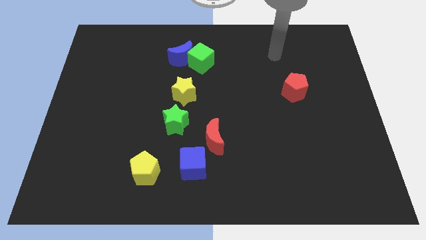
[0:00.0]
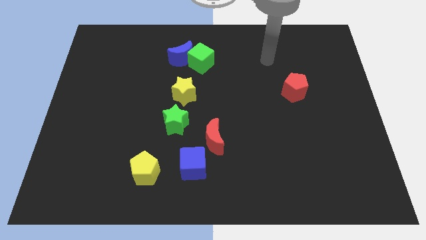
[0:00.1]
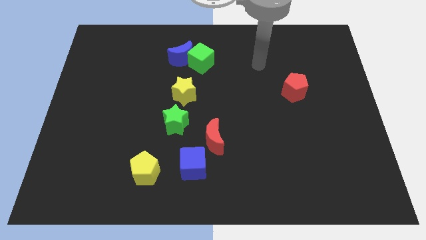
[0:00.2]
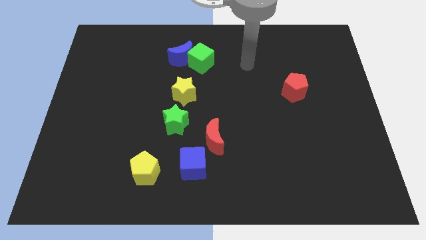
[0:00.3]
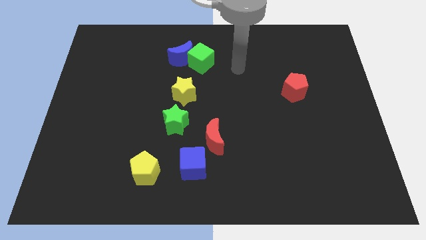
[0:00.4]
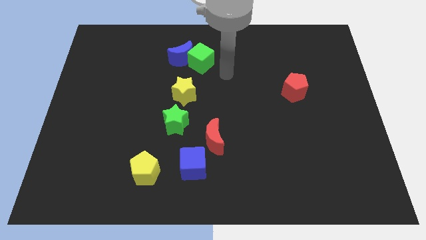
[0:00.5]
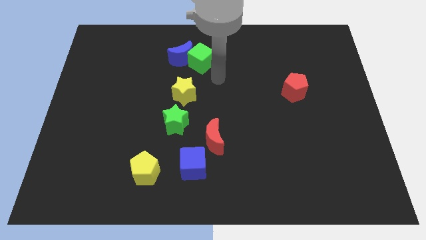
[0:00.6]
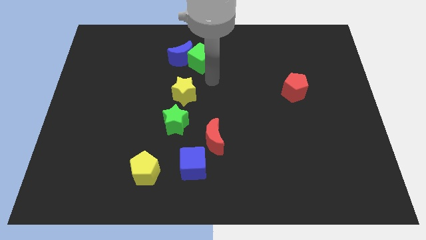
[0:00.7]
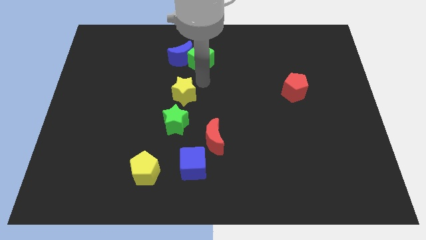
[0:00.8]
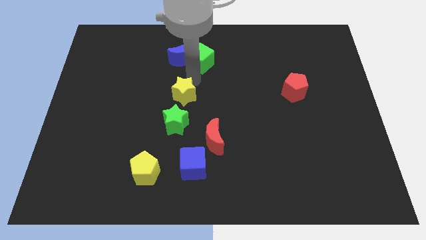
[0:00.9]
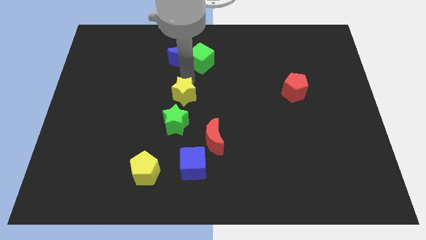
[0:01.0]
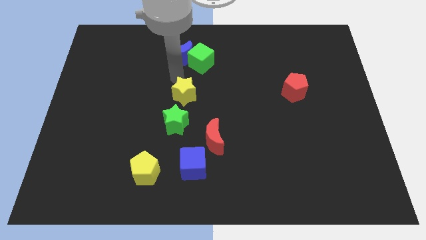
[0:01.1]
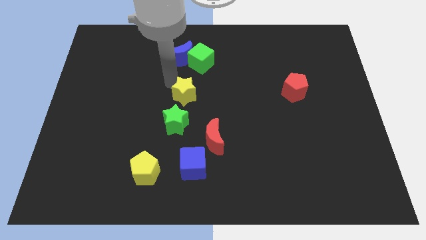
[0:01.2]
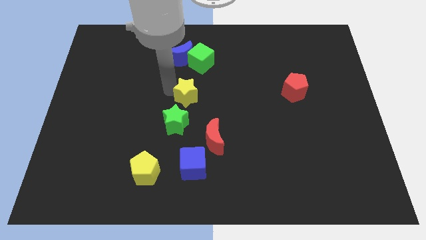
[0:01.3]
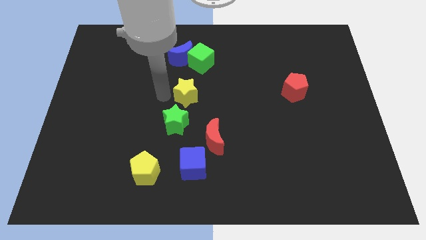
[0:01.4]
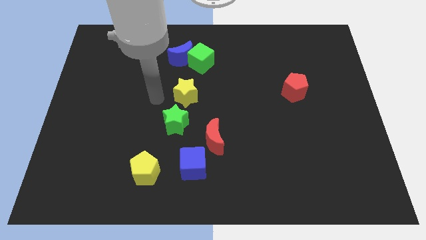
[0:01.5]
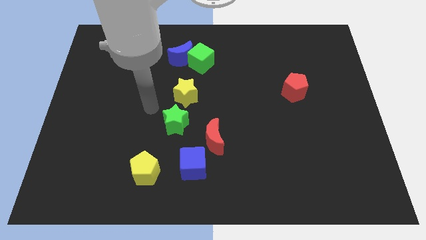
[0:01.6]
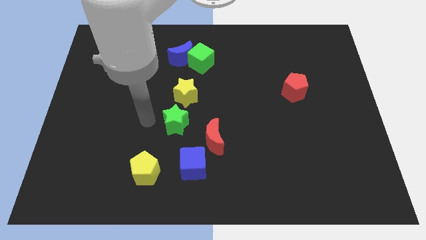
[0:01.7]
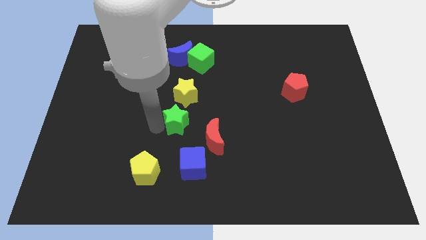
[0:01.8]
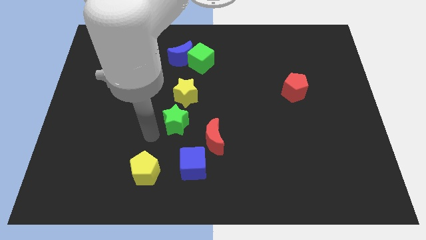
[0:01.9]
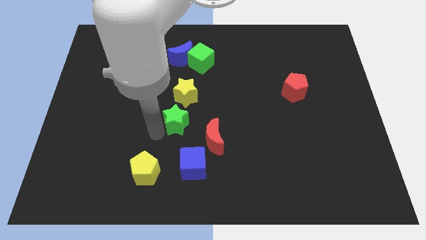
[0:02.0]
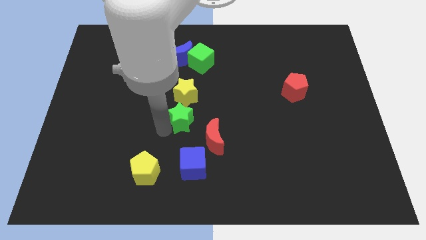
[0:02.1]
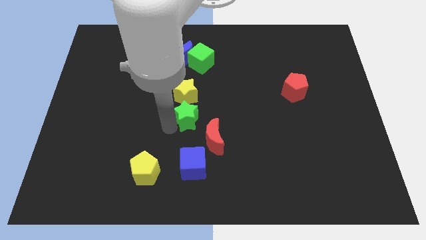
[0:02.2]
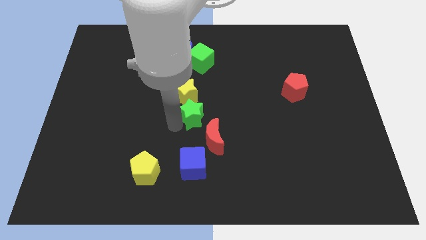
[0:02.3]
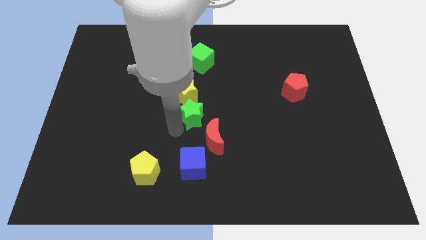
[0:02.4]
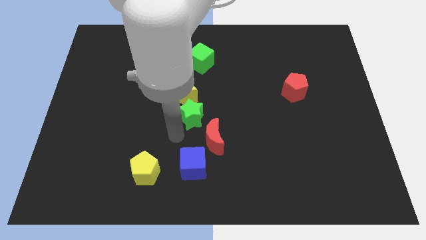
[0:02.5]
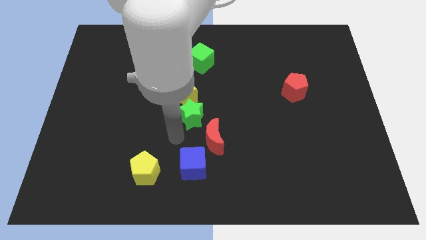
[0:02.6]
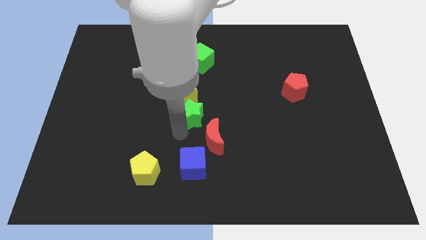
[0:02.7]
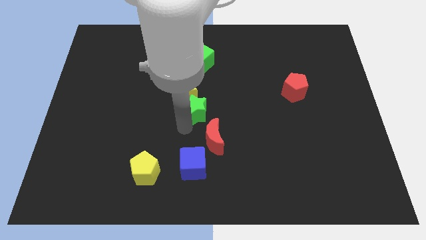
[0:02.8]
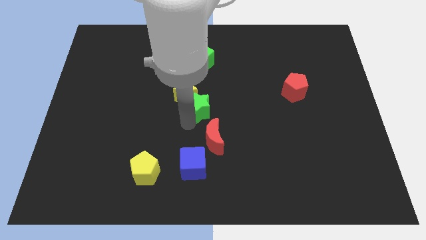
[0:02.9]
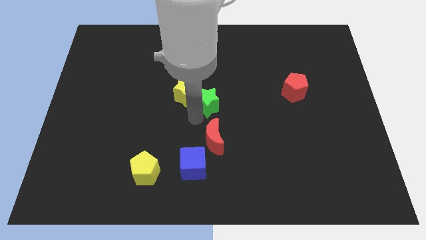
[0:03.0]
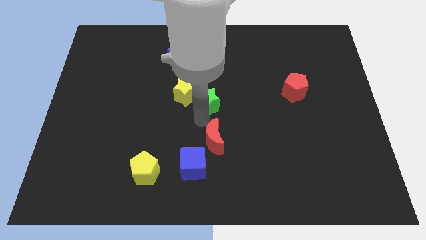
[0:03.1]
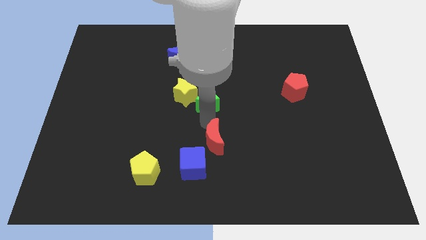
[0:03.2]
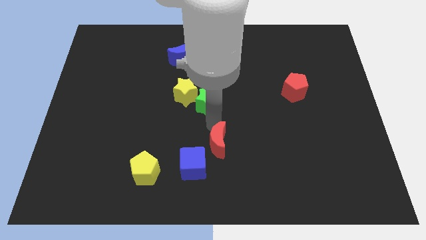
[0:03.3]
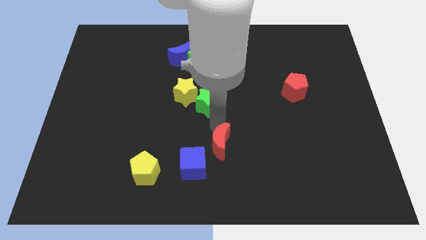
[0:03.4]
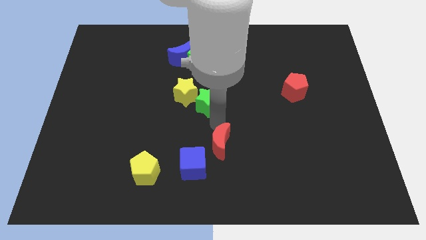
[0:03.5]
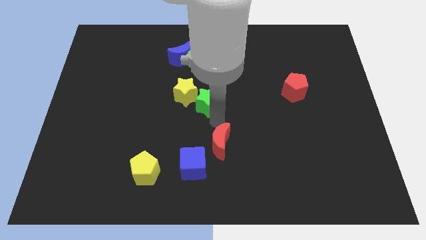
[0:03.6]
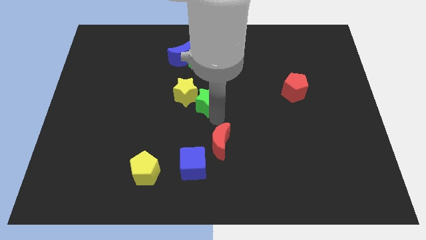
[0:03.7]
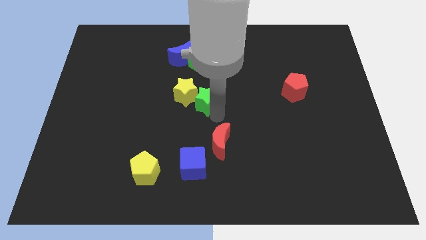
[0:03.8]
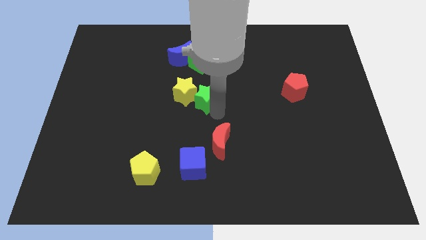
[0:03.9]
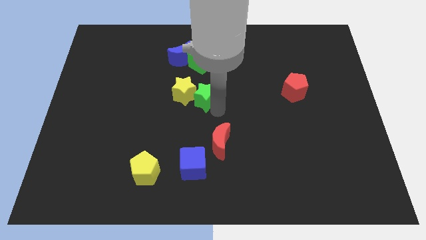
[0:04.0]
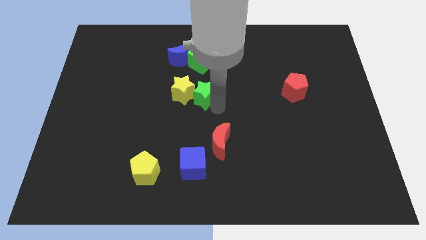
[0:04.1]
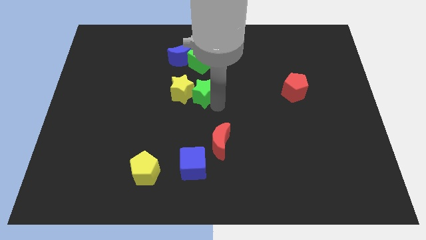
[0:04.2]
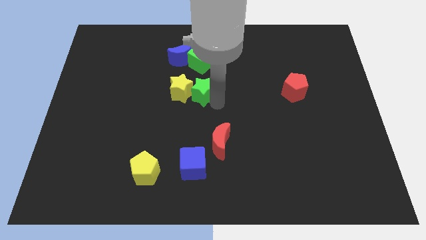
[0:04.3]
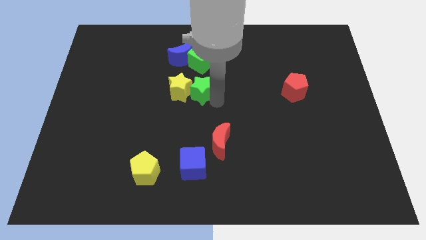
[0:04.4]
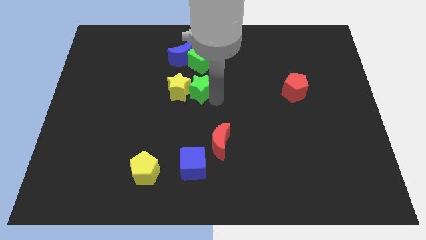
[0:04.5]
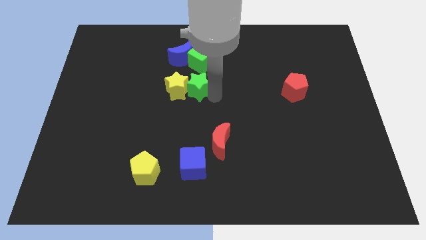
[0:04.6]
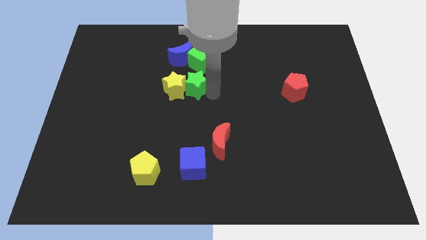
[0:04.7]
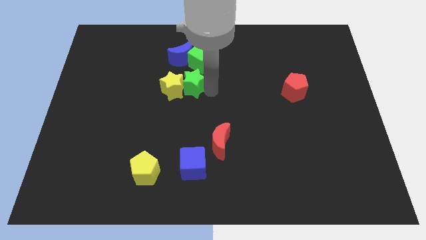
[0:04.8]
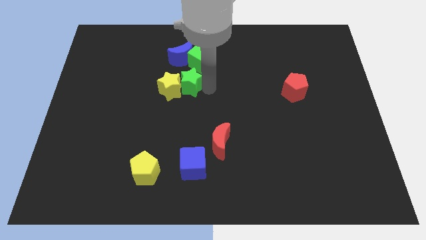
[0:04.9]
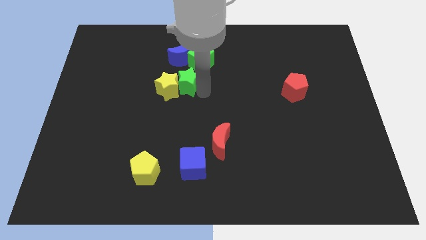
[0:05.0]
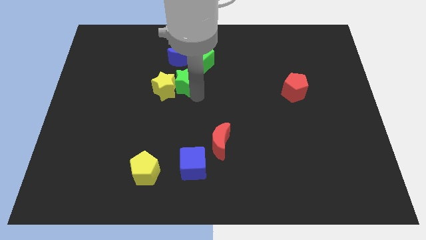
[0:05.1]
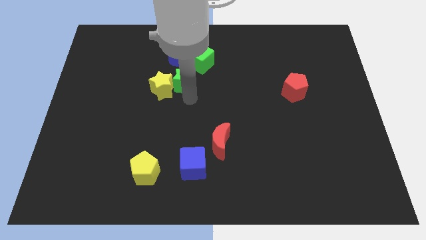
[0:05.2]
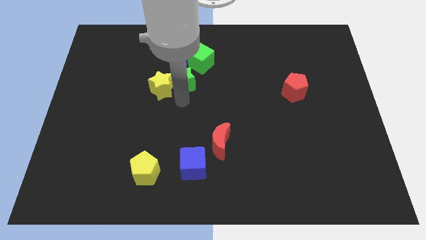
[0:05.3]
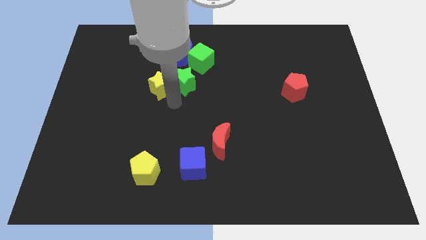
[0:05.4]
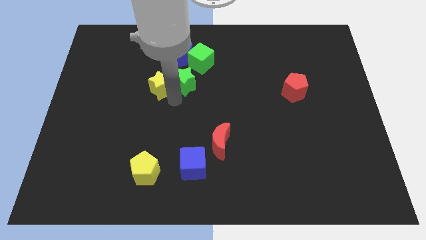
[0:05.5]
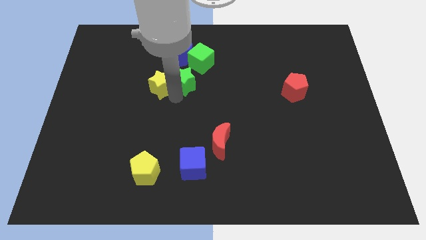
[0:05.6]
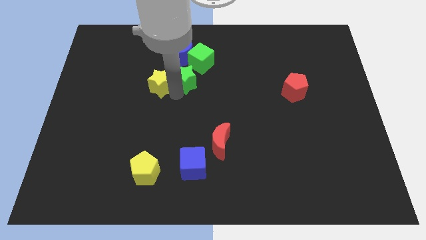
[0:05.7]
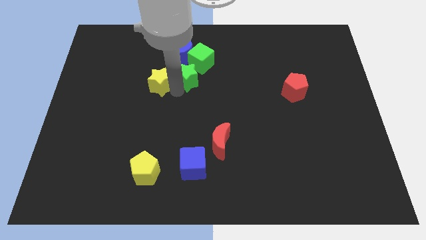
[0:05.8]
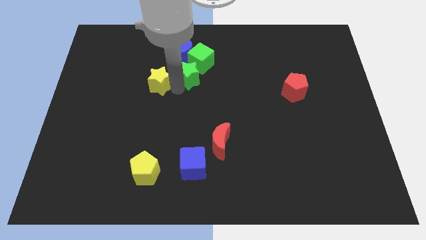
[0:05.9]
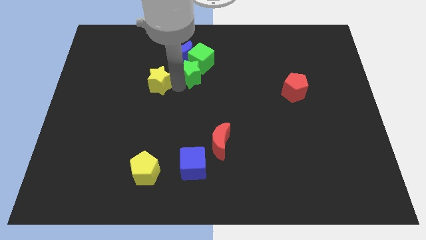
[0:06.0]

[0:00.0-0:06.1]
slide the green star close to the green cube

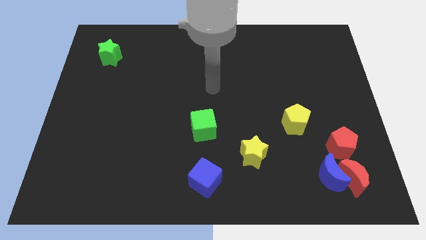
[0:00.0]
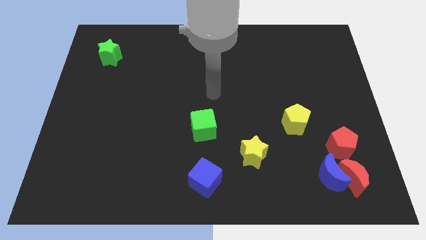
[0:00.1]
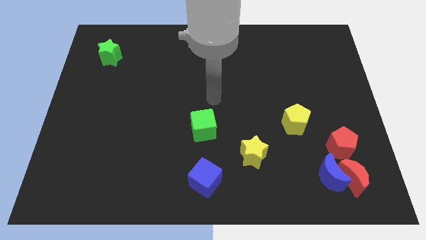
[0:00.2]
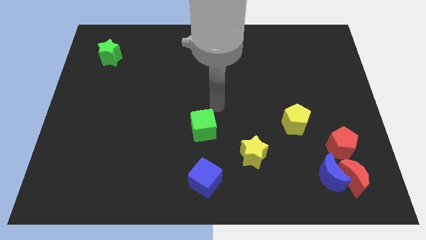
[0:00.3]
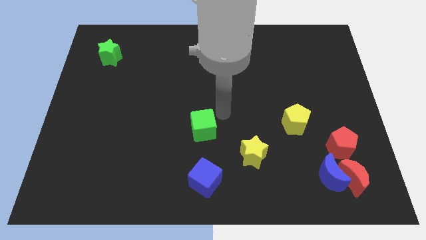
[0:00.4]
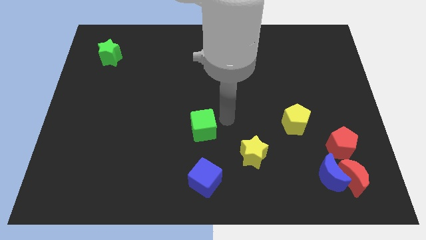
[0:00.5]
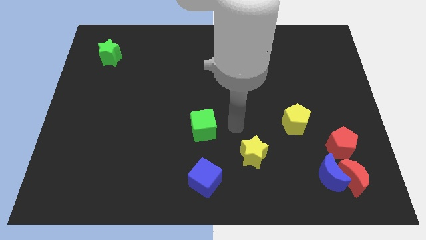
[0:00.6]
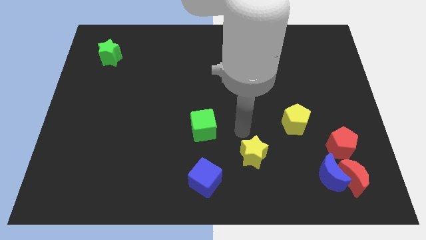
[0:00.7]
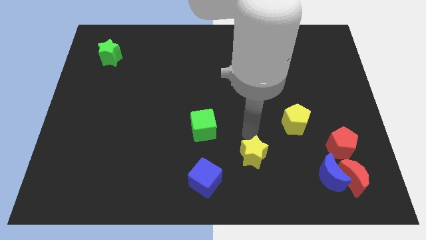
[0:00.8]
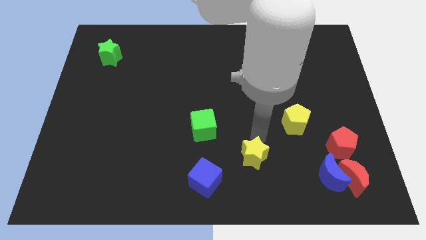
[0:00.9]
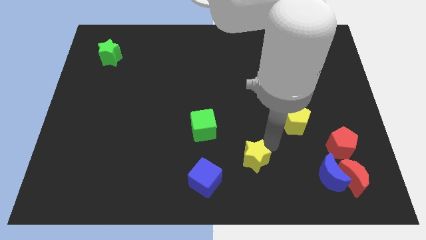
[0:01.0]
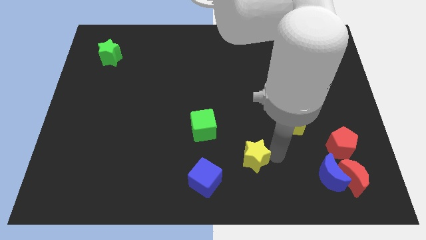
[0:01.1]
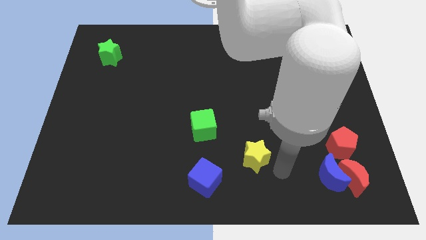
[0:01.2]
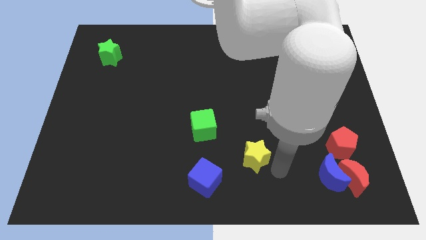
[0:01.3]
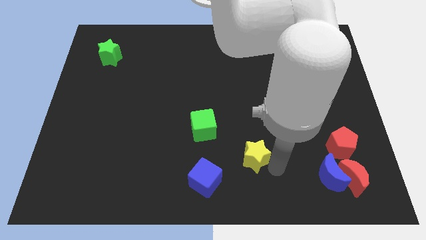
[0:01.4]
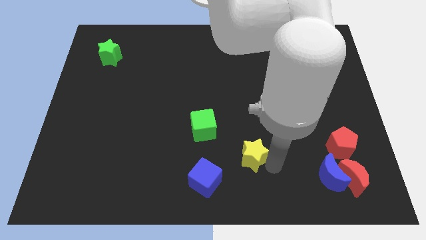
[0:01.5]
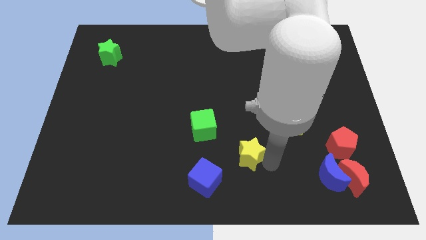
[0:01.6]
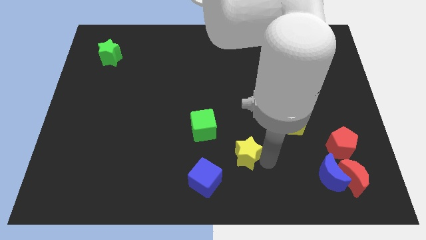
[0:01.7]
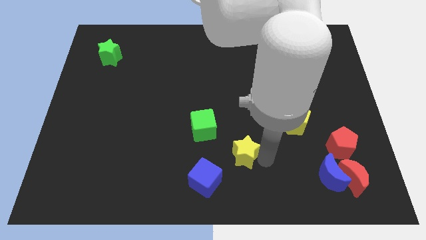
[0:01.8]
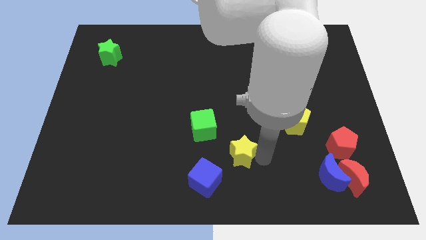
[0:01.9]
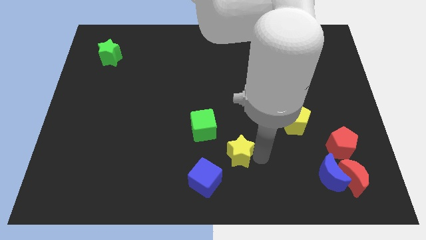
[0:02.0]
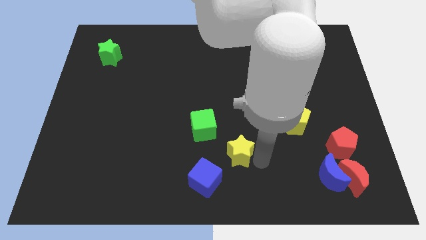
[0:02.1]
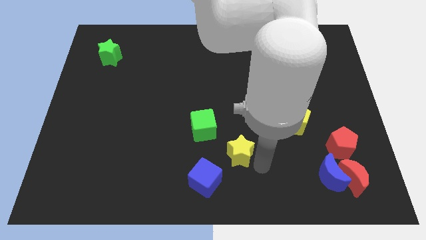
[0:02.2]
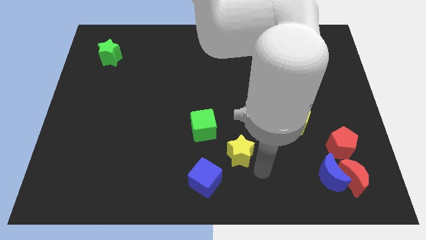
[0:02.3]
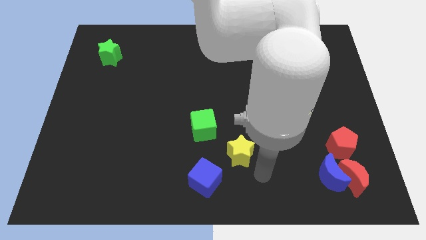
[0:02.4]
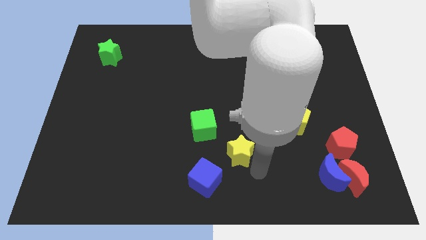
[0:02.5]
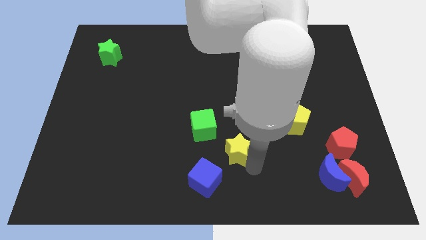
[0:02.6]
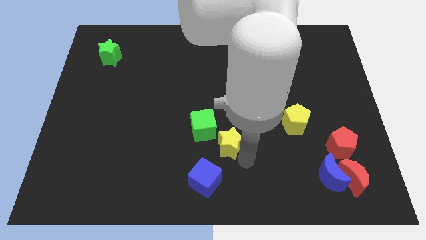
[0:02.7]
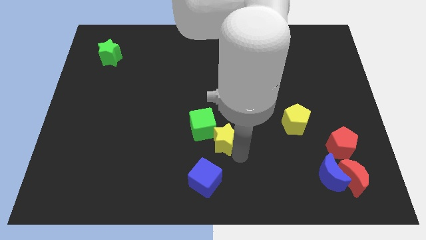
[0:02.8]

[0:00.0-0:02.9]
slide the yellow star next to the green cube
